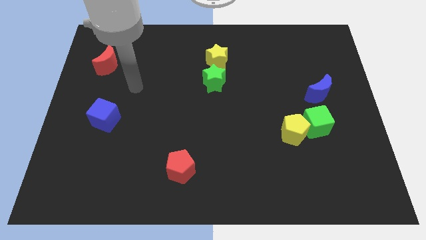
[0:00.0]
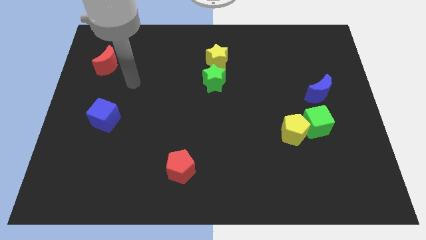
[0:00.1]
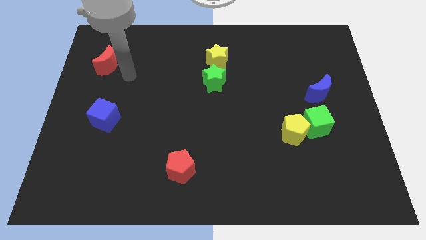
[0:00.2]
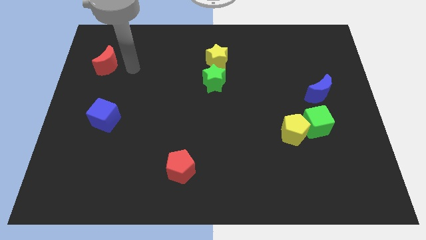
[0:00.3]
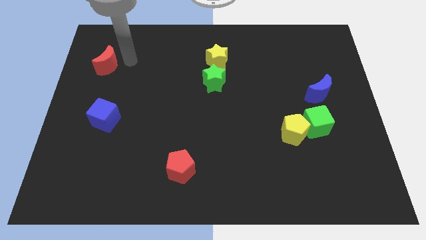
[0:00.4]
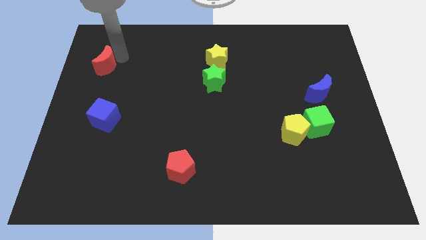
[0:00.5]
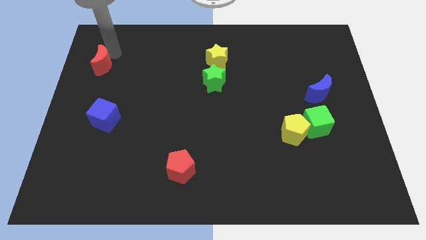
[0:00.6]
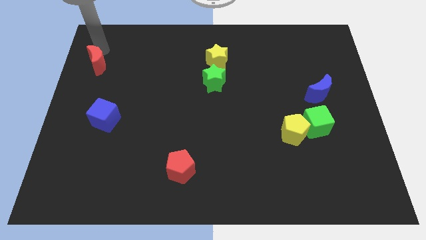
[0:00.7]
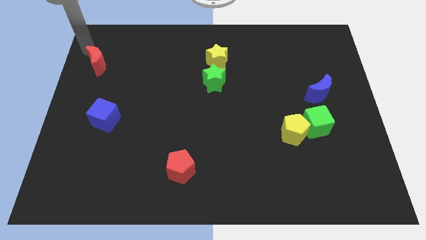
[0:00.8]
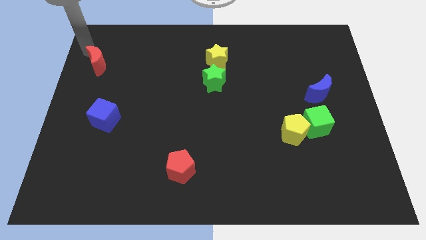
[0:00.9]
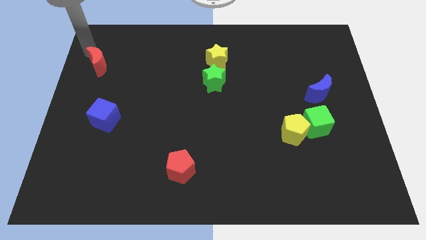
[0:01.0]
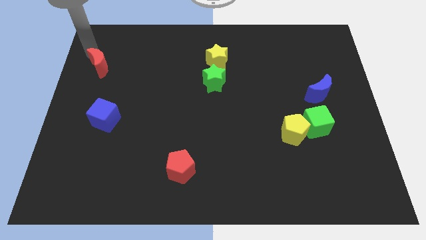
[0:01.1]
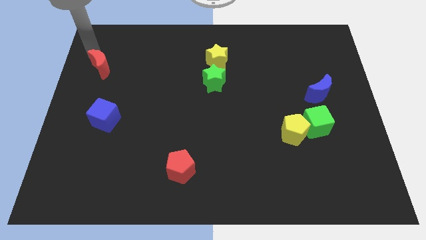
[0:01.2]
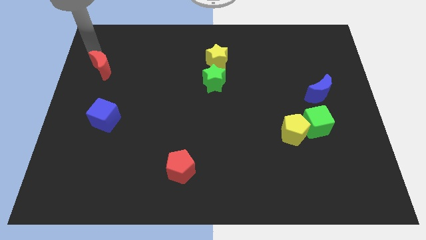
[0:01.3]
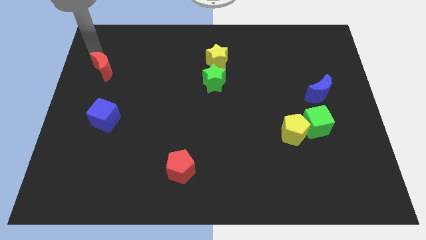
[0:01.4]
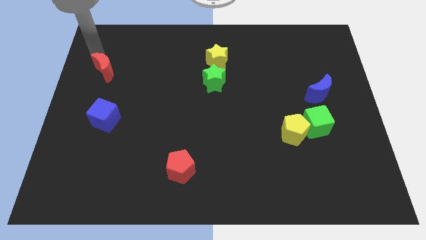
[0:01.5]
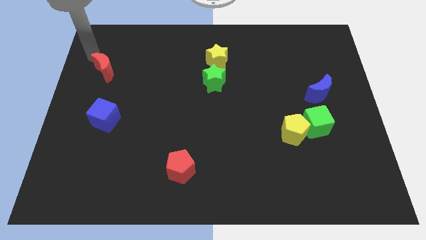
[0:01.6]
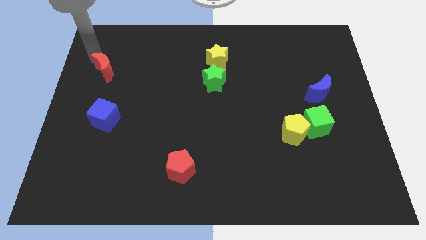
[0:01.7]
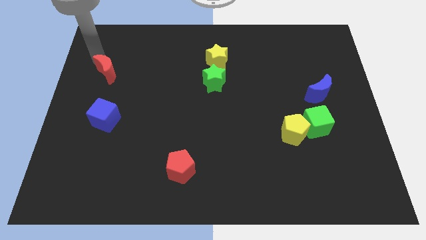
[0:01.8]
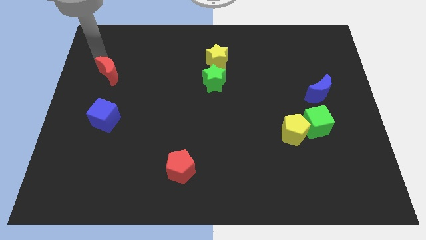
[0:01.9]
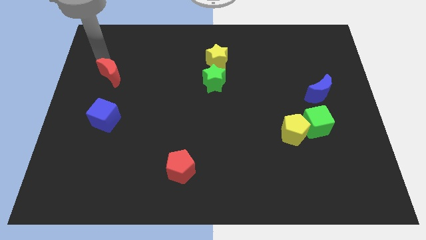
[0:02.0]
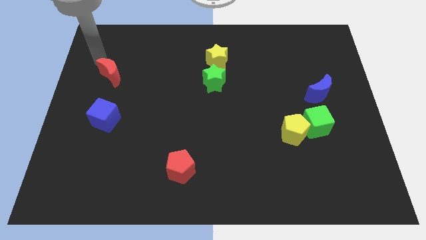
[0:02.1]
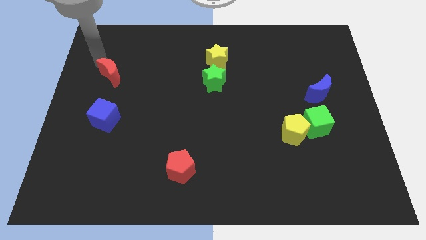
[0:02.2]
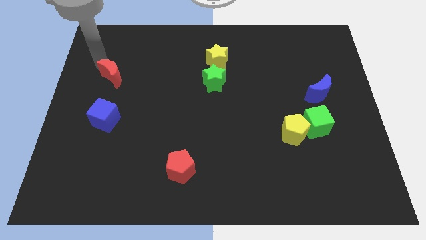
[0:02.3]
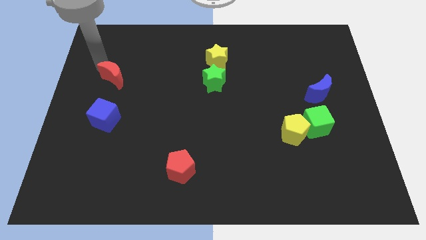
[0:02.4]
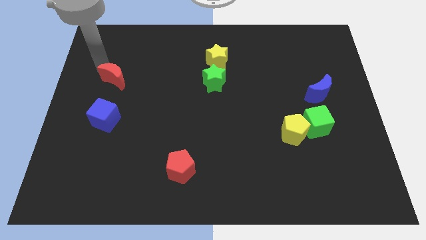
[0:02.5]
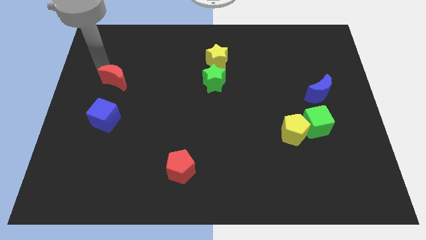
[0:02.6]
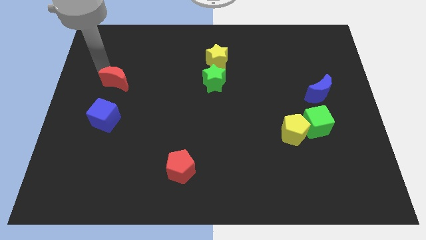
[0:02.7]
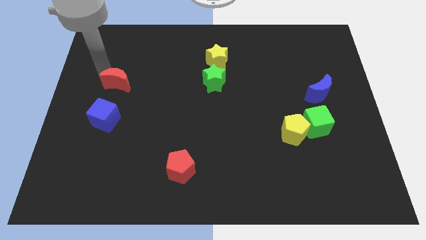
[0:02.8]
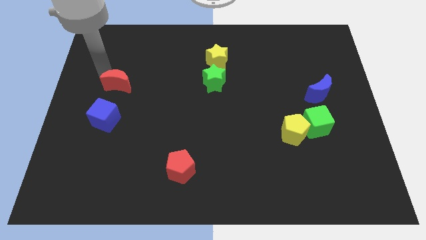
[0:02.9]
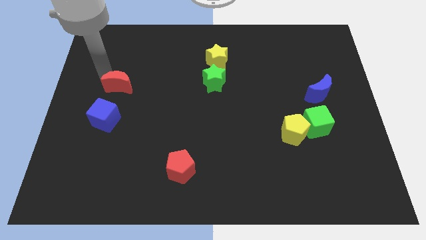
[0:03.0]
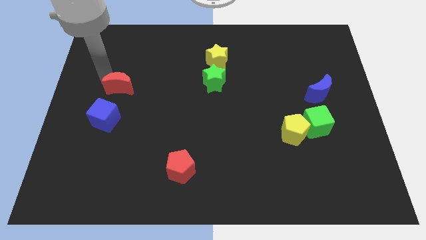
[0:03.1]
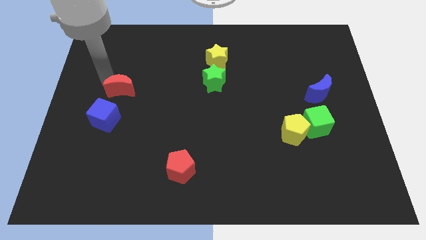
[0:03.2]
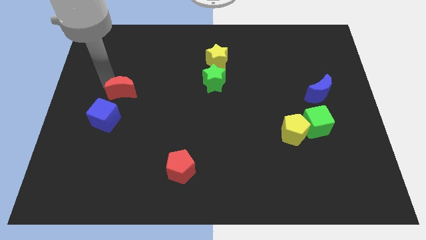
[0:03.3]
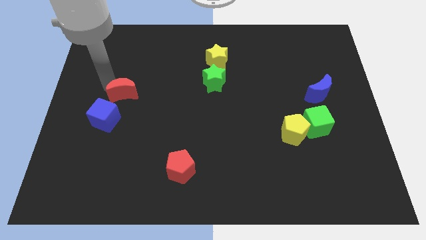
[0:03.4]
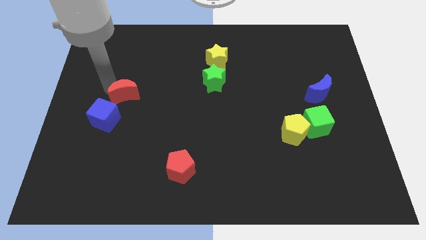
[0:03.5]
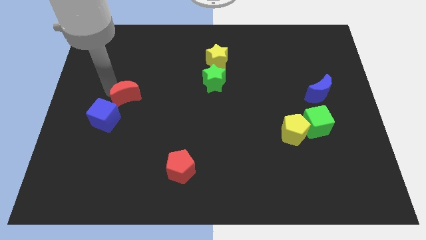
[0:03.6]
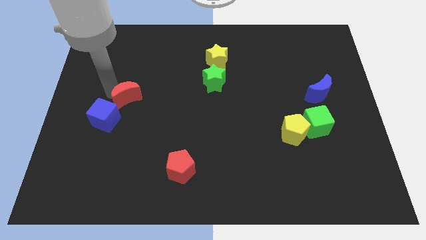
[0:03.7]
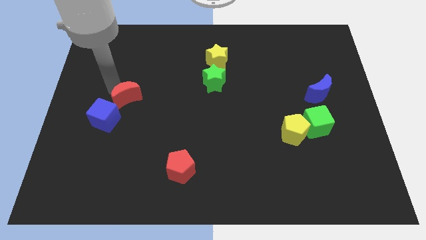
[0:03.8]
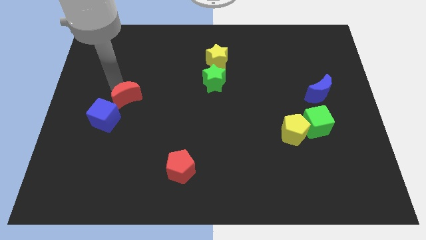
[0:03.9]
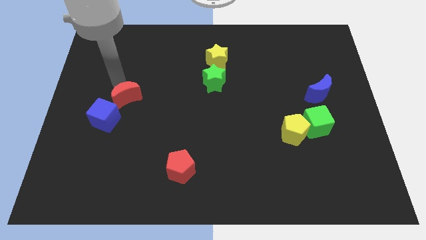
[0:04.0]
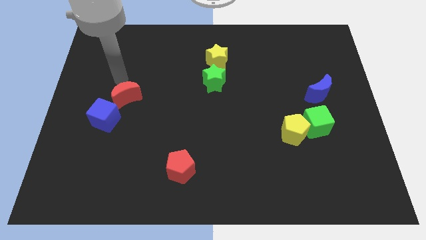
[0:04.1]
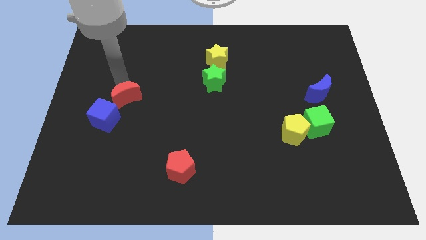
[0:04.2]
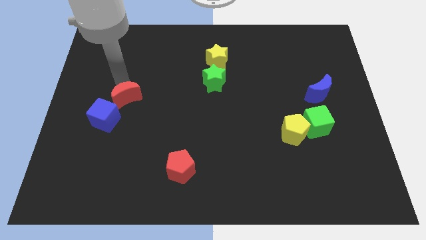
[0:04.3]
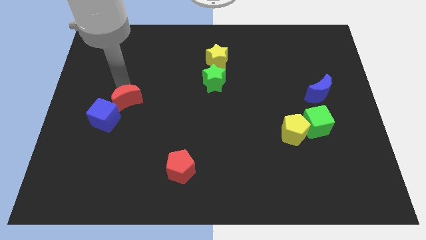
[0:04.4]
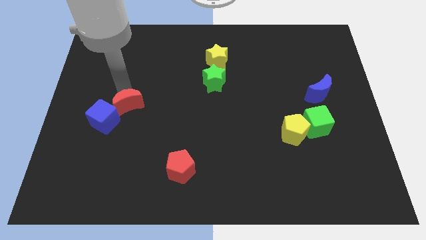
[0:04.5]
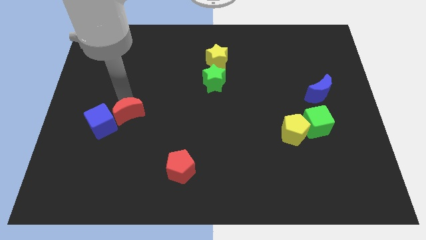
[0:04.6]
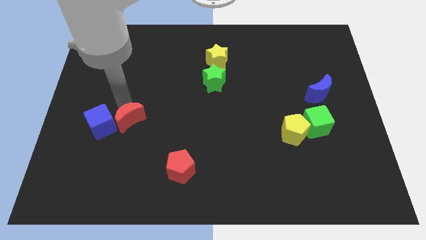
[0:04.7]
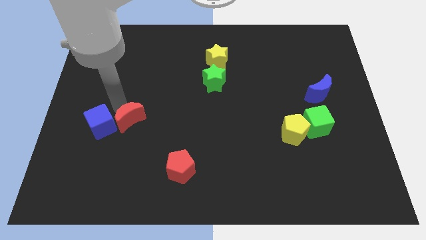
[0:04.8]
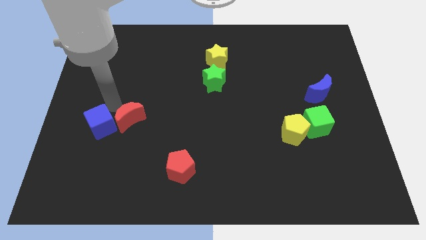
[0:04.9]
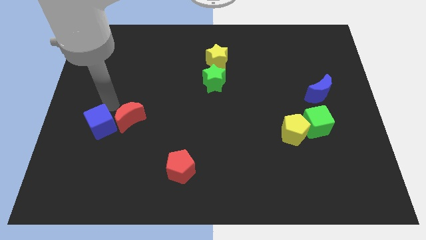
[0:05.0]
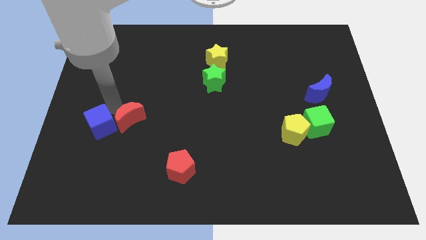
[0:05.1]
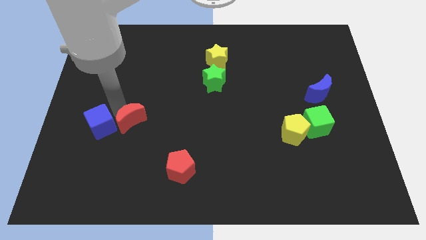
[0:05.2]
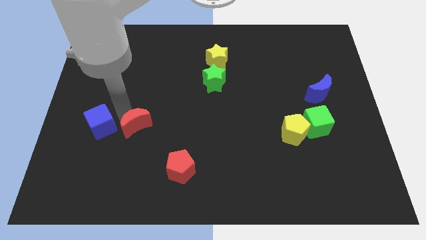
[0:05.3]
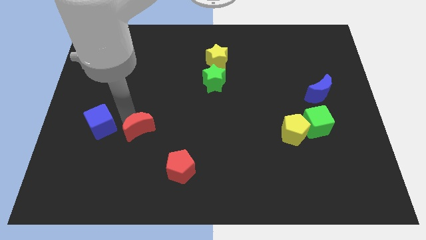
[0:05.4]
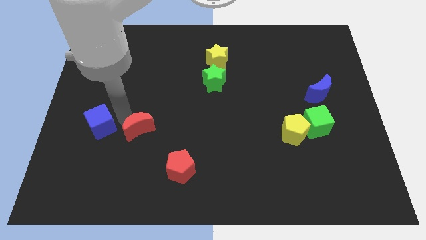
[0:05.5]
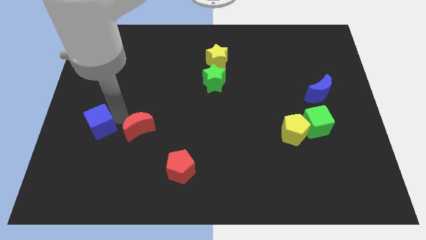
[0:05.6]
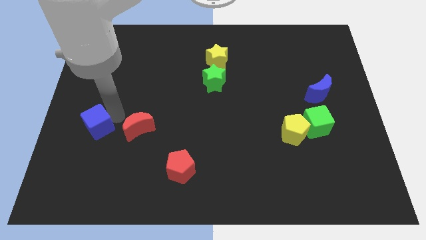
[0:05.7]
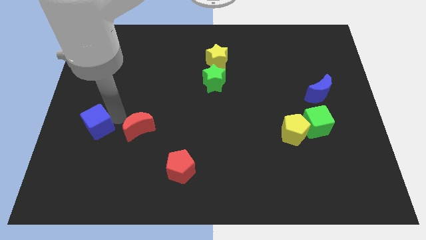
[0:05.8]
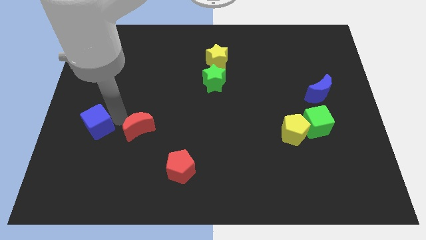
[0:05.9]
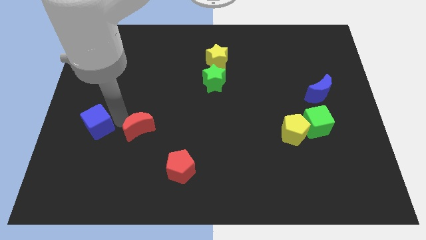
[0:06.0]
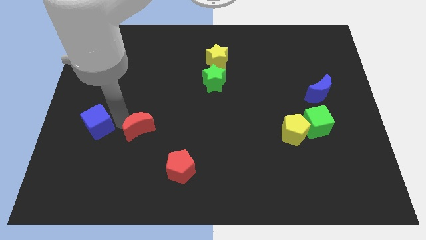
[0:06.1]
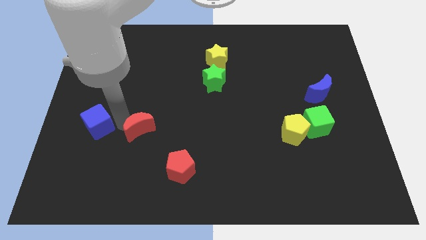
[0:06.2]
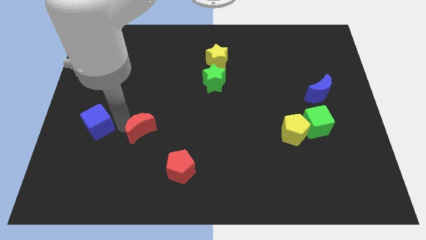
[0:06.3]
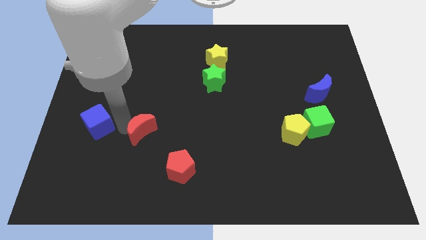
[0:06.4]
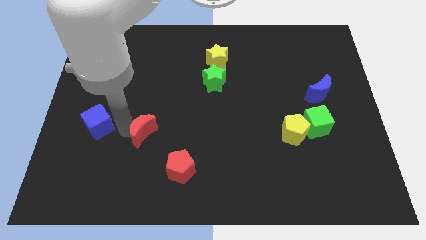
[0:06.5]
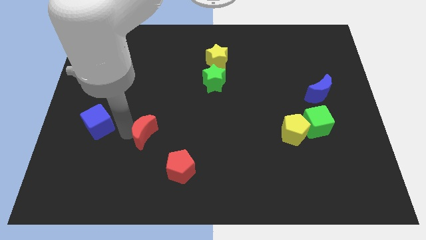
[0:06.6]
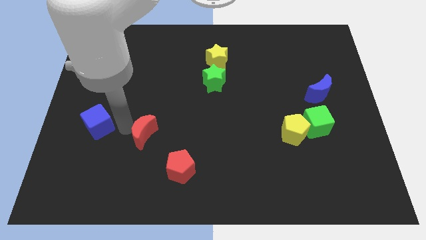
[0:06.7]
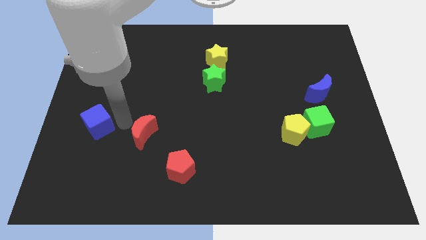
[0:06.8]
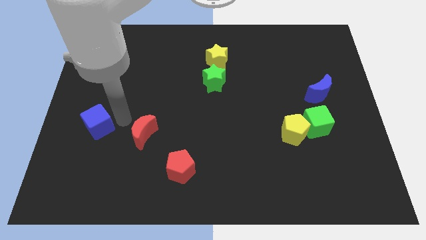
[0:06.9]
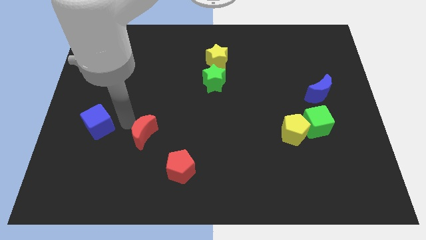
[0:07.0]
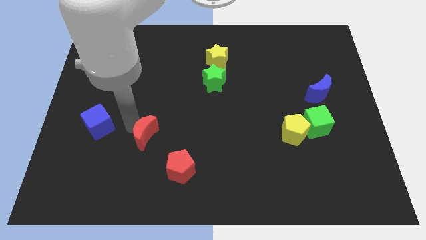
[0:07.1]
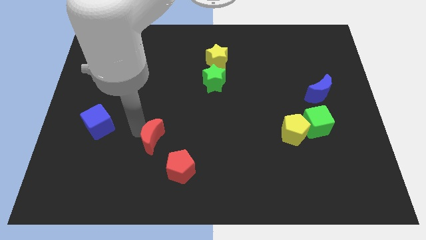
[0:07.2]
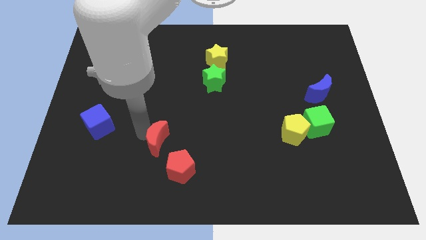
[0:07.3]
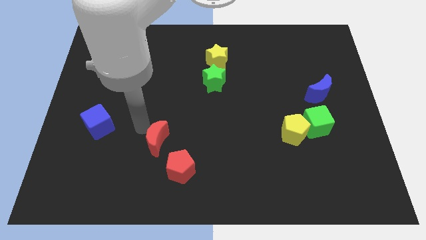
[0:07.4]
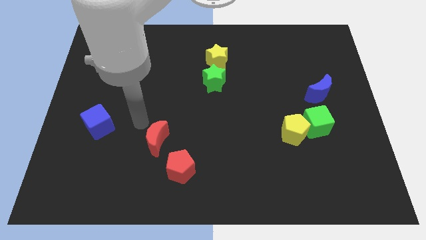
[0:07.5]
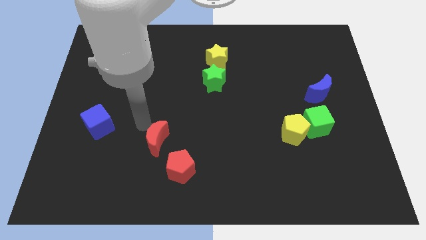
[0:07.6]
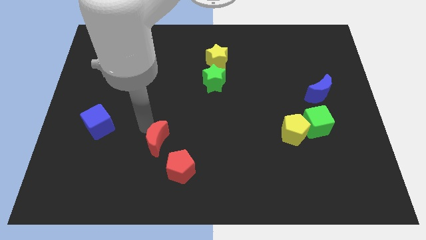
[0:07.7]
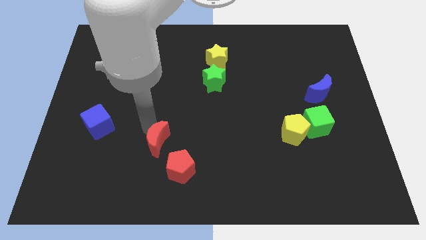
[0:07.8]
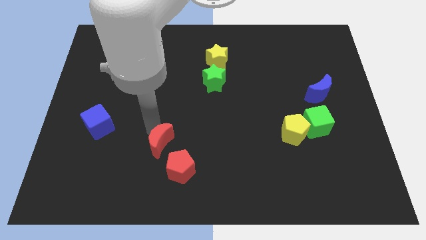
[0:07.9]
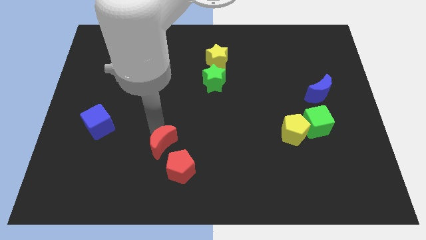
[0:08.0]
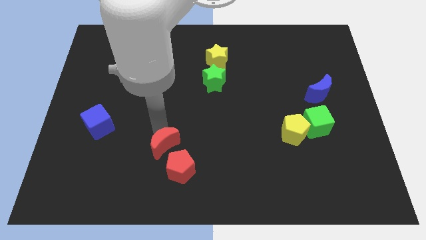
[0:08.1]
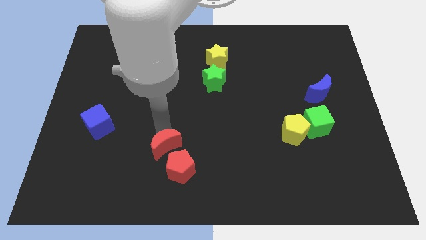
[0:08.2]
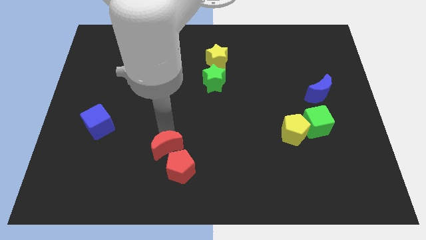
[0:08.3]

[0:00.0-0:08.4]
put the red moon next to the red pentagon
